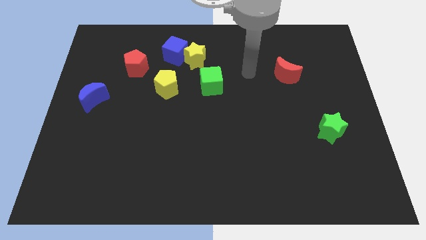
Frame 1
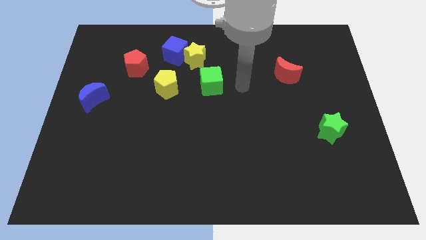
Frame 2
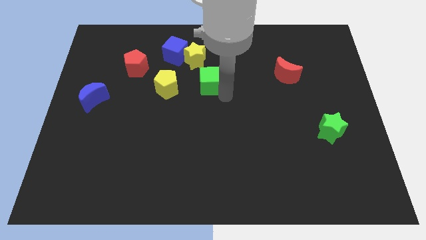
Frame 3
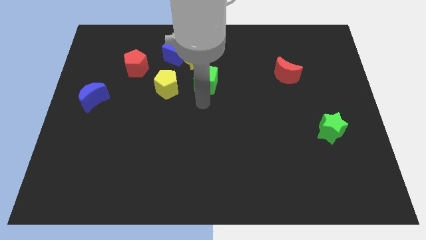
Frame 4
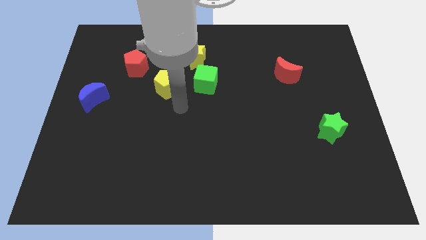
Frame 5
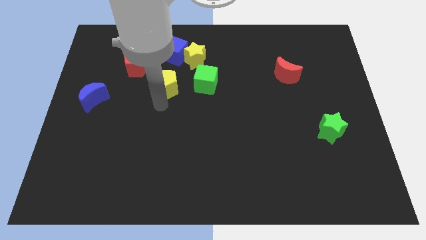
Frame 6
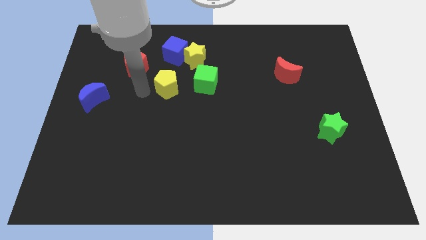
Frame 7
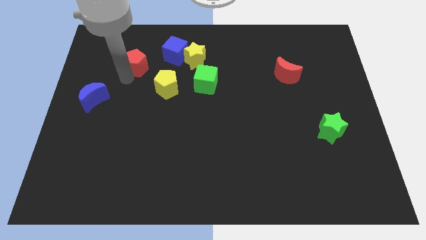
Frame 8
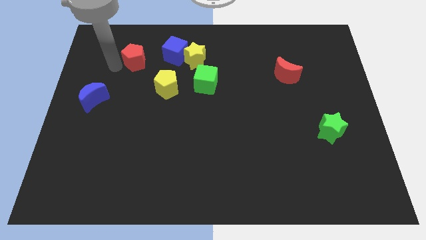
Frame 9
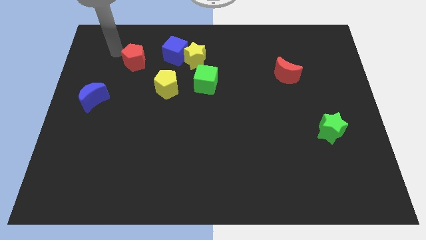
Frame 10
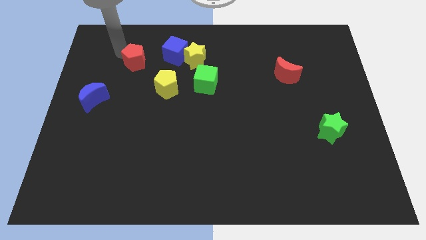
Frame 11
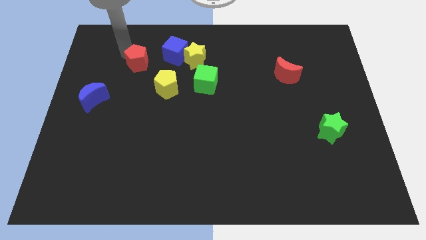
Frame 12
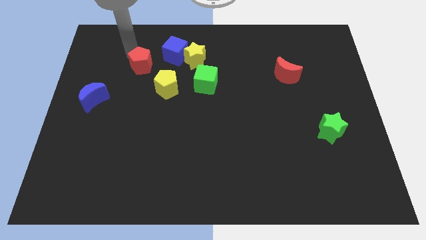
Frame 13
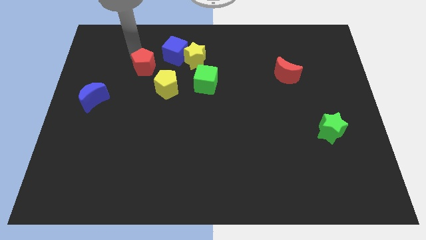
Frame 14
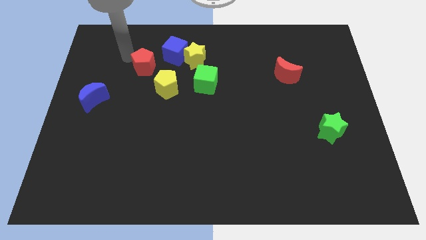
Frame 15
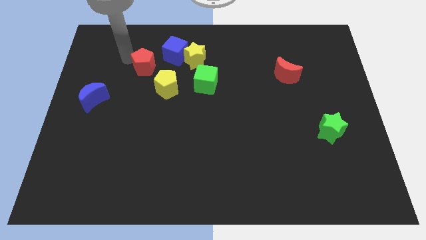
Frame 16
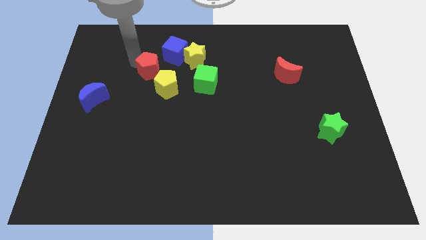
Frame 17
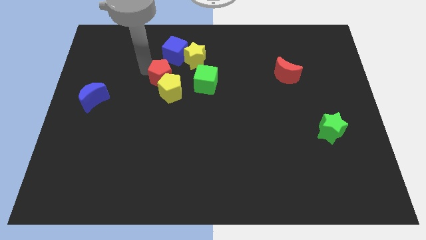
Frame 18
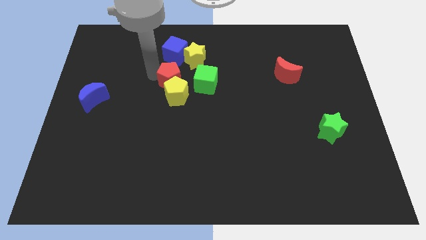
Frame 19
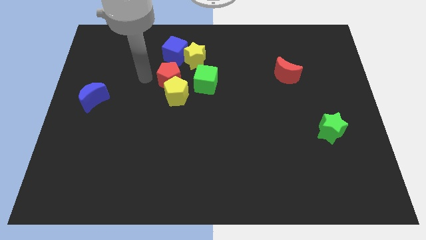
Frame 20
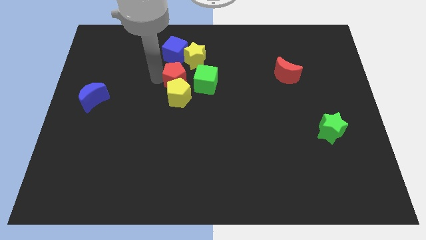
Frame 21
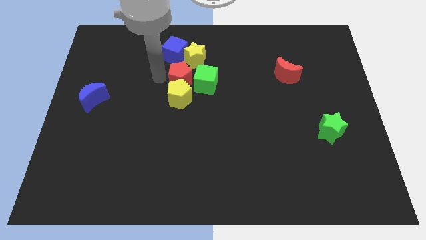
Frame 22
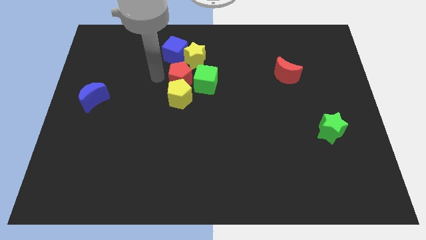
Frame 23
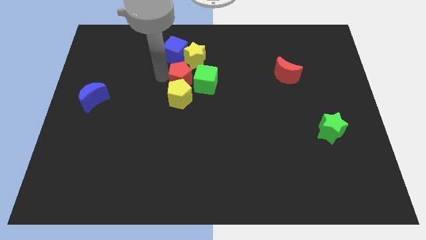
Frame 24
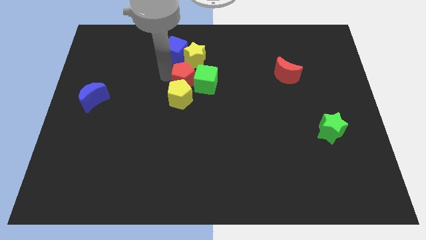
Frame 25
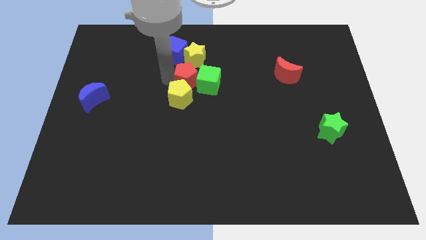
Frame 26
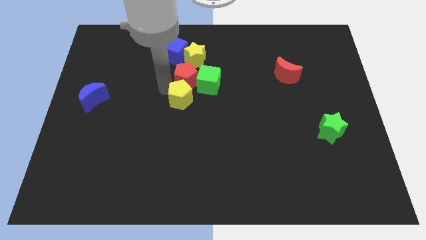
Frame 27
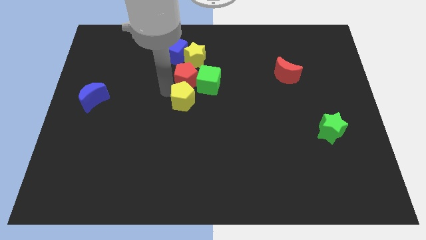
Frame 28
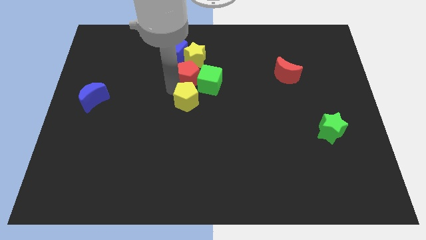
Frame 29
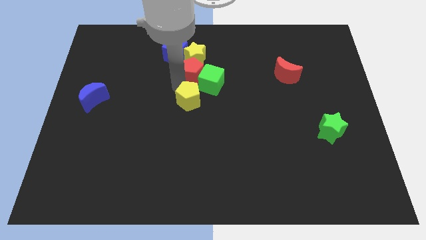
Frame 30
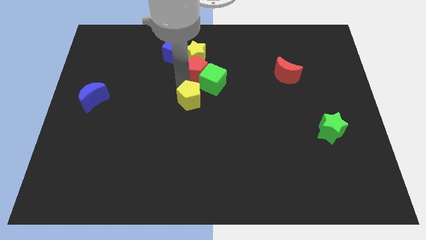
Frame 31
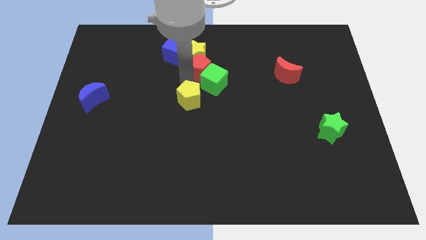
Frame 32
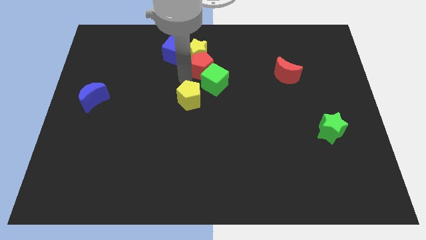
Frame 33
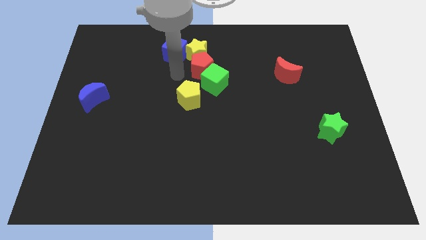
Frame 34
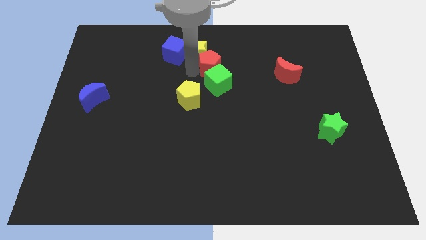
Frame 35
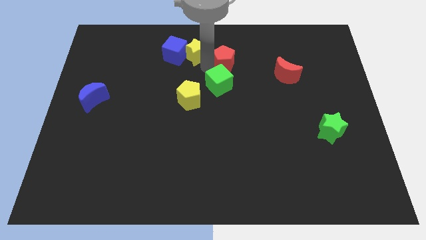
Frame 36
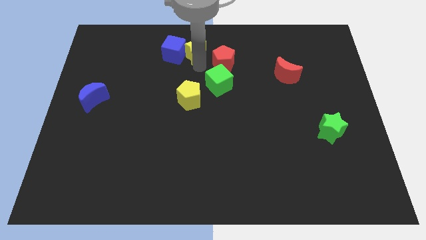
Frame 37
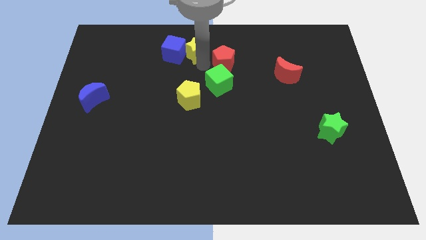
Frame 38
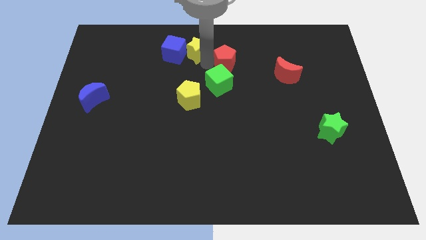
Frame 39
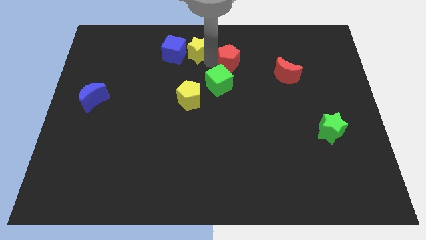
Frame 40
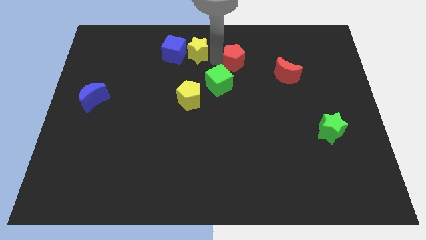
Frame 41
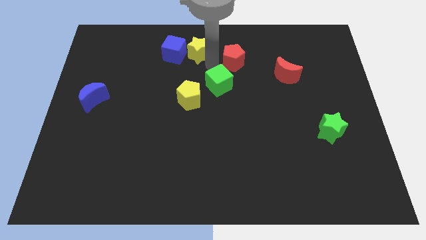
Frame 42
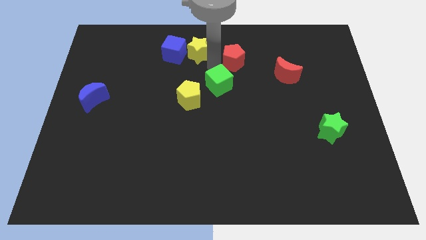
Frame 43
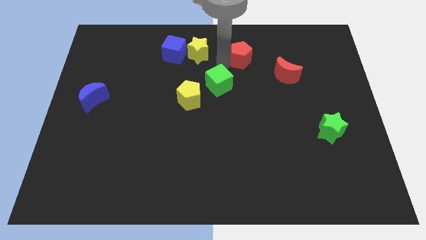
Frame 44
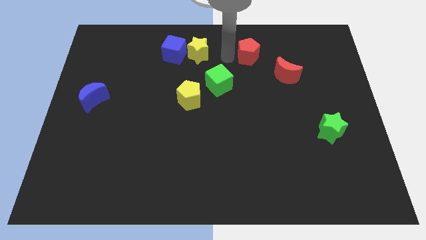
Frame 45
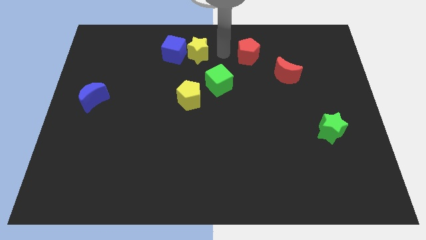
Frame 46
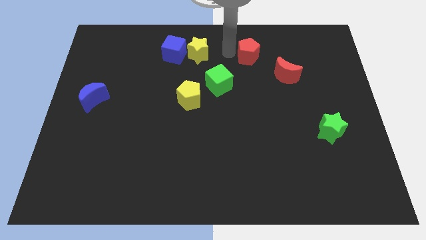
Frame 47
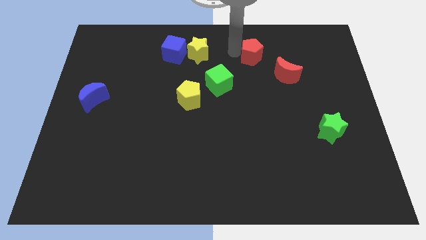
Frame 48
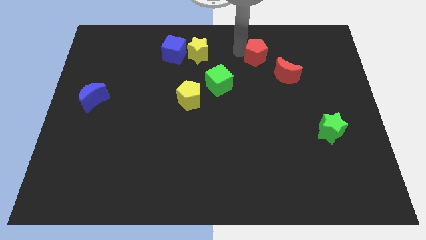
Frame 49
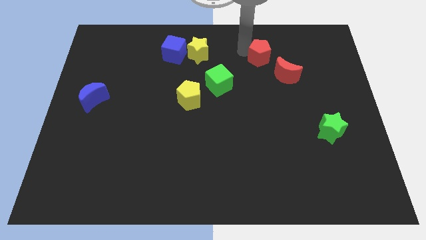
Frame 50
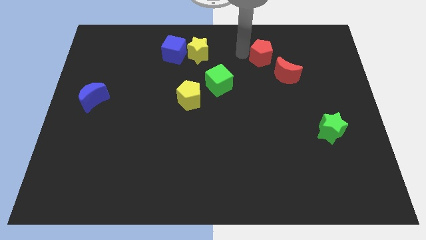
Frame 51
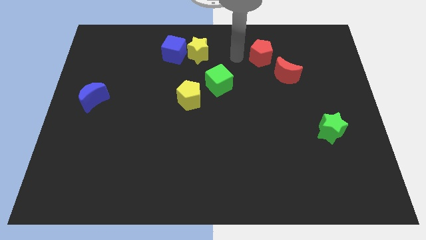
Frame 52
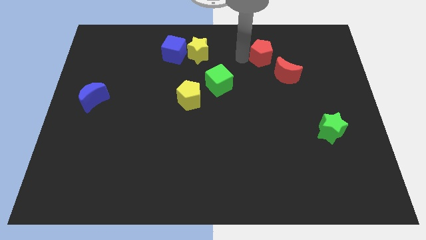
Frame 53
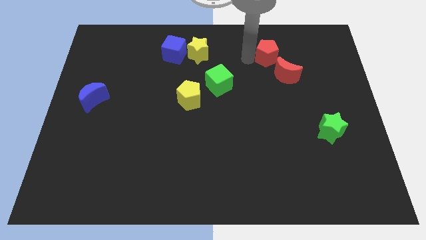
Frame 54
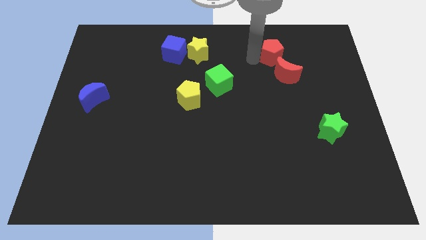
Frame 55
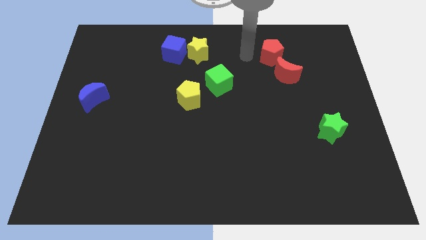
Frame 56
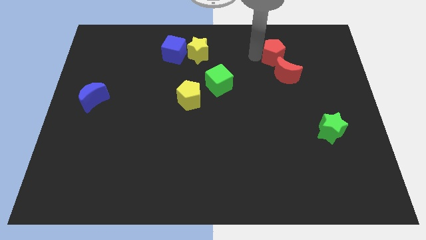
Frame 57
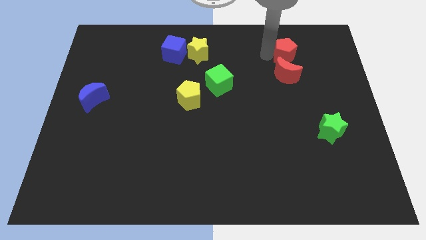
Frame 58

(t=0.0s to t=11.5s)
push the red pentagon to the top right of the red moon

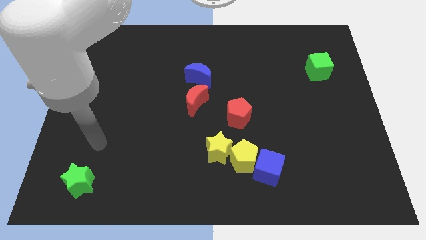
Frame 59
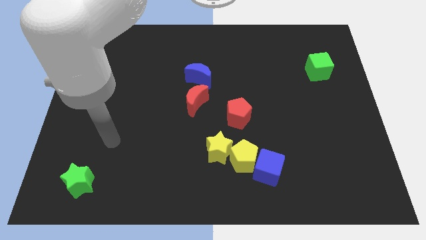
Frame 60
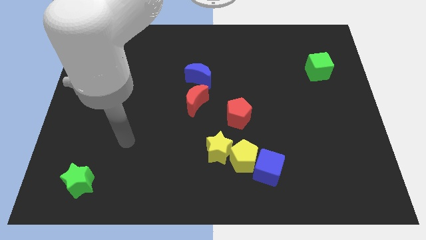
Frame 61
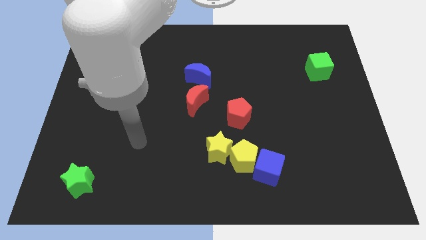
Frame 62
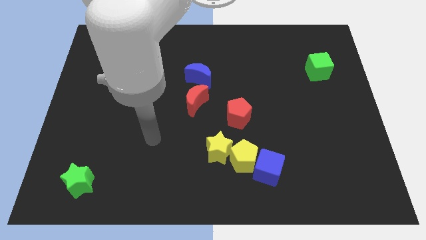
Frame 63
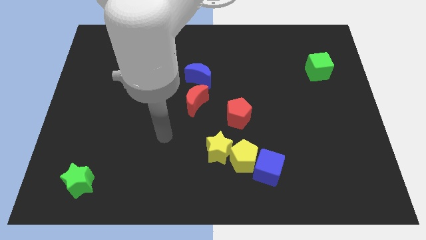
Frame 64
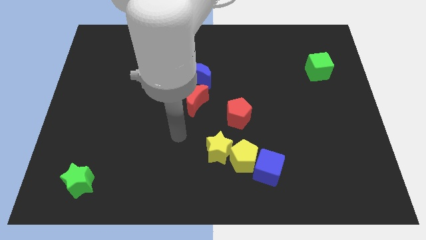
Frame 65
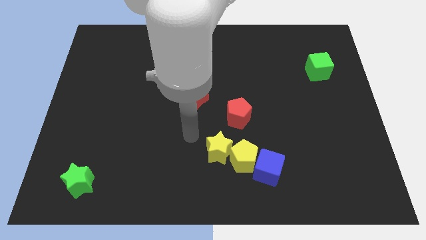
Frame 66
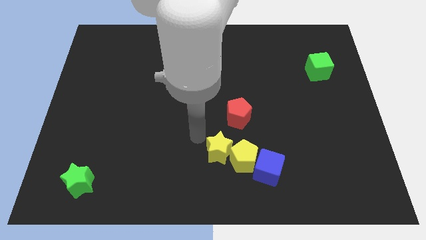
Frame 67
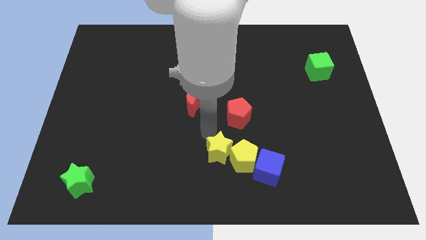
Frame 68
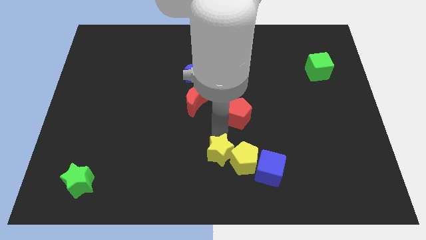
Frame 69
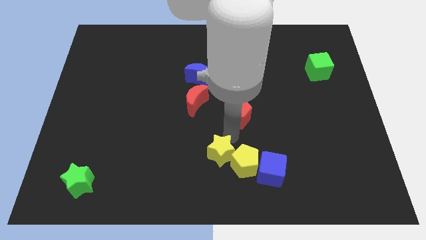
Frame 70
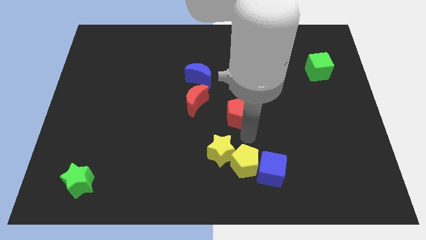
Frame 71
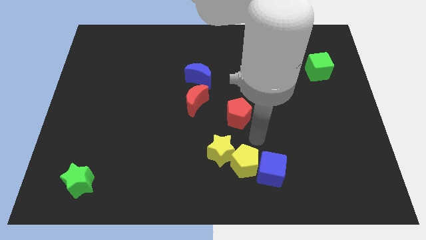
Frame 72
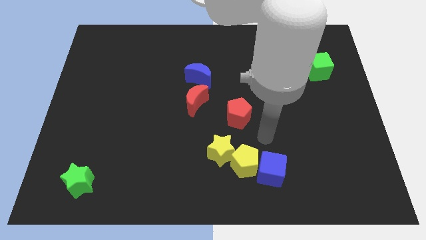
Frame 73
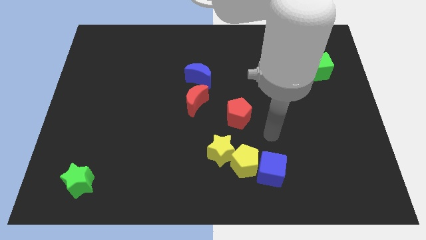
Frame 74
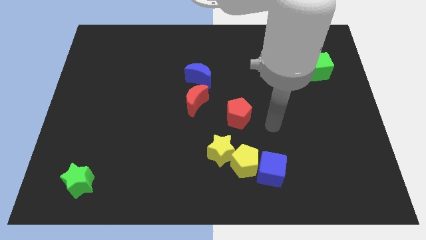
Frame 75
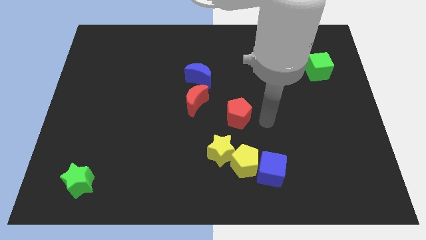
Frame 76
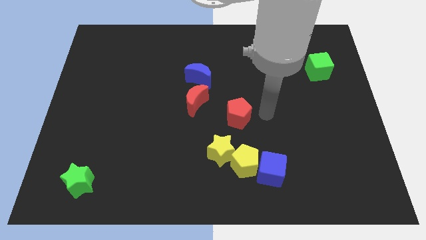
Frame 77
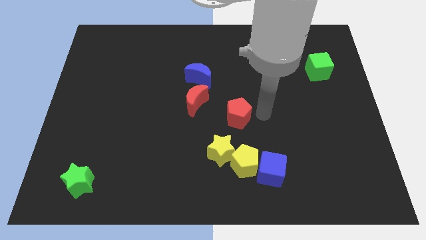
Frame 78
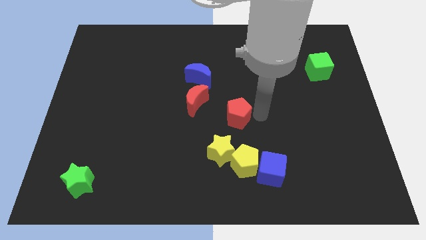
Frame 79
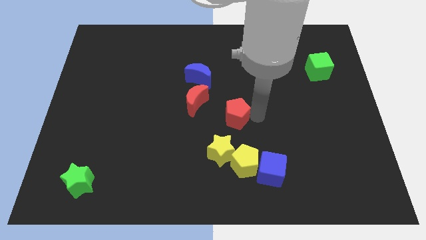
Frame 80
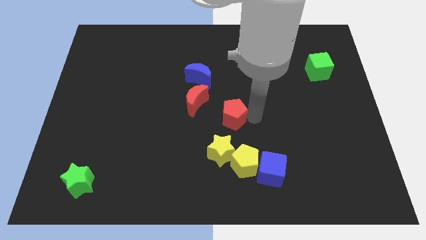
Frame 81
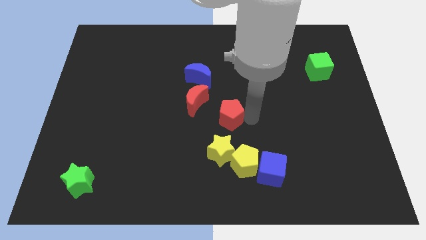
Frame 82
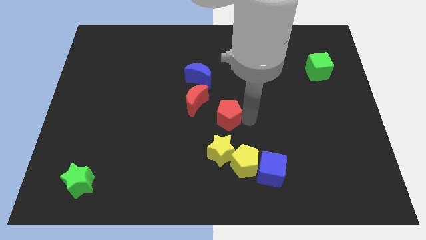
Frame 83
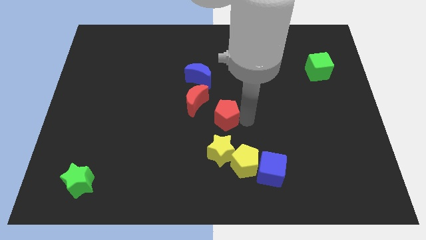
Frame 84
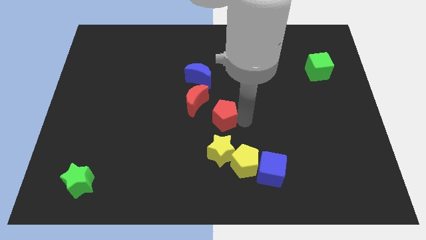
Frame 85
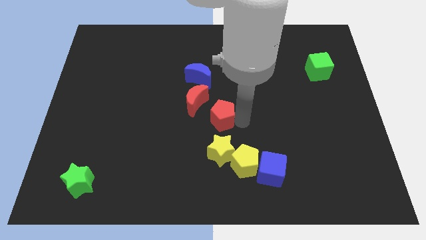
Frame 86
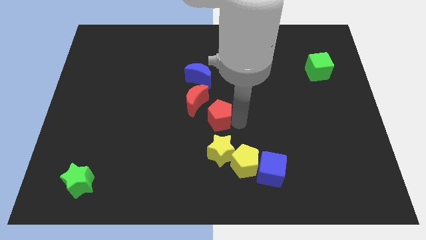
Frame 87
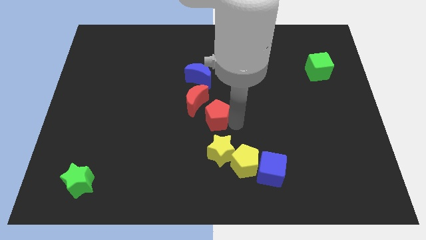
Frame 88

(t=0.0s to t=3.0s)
slide the red pentagon to the bottom side of the blue moon
